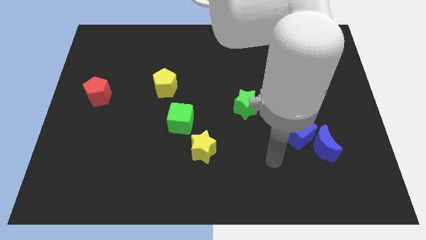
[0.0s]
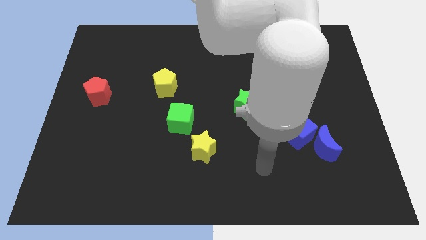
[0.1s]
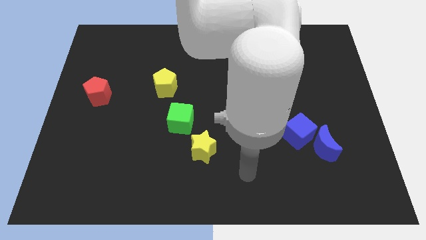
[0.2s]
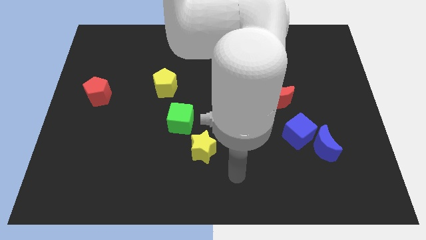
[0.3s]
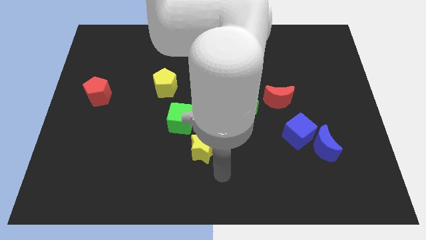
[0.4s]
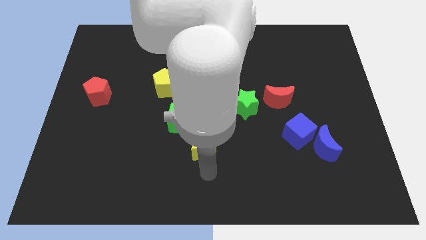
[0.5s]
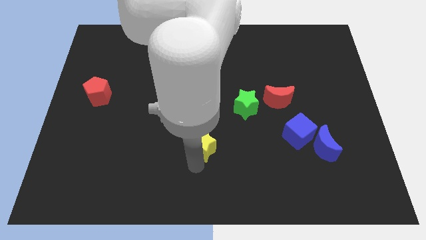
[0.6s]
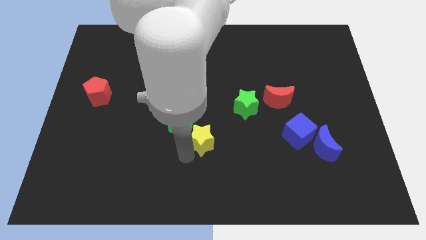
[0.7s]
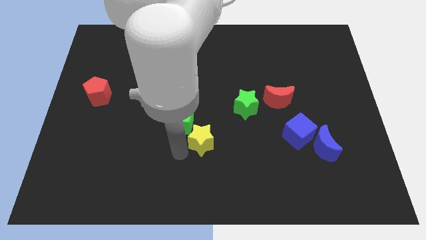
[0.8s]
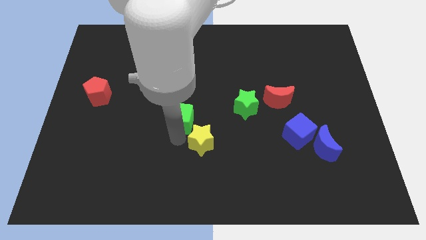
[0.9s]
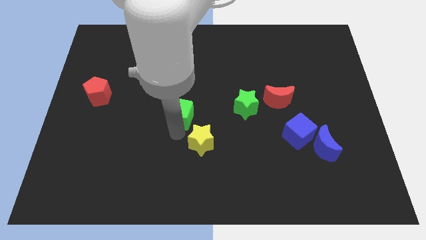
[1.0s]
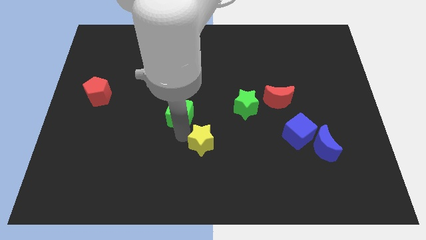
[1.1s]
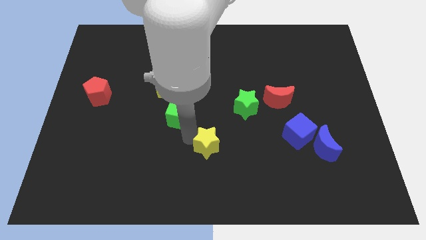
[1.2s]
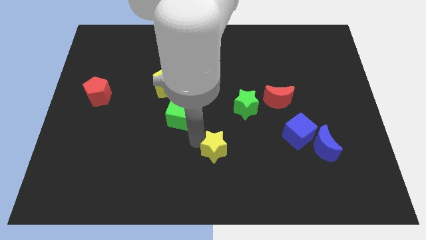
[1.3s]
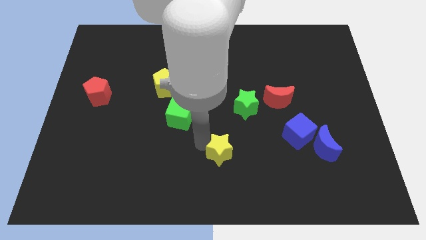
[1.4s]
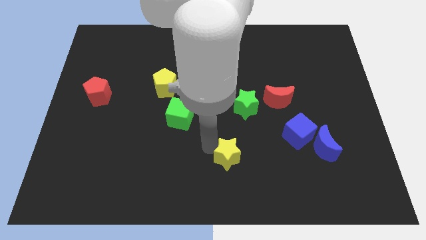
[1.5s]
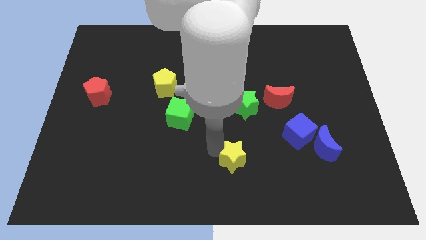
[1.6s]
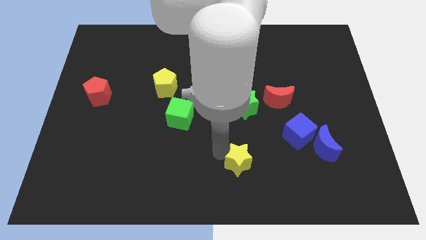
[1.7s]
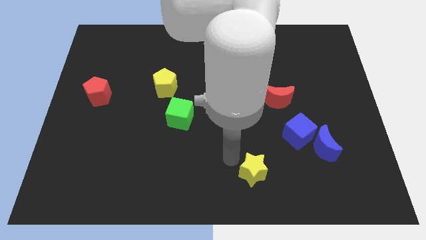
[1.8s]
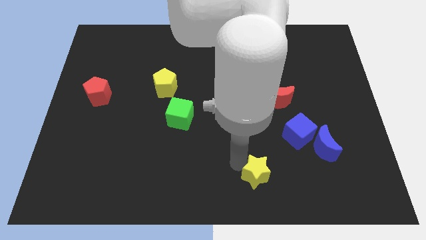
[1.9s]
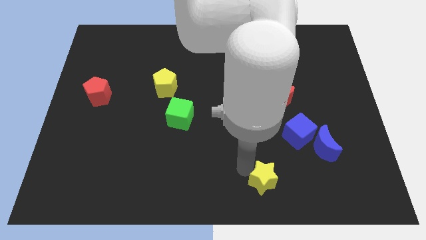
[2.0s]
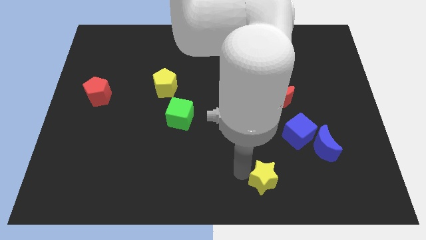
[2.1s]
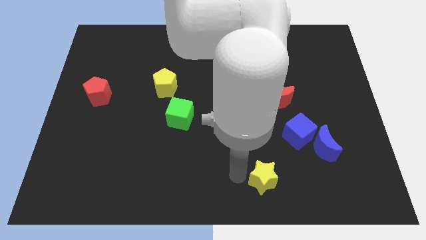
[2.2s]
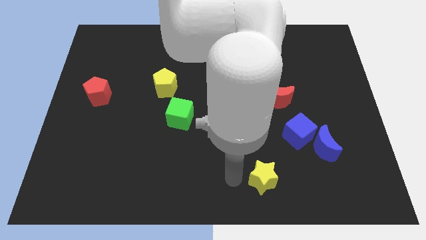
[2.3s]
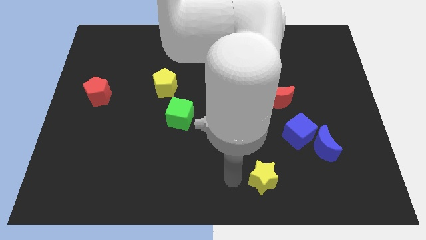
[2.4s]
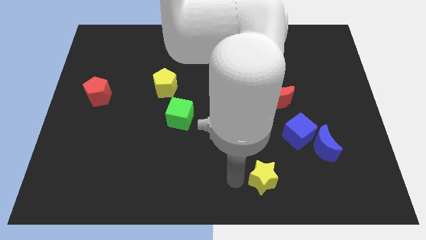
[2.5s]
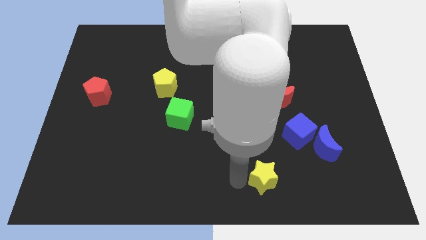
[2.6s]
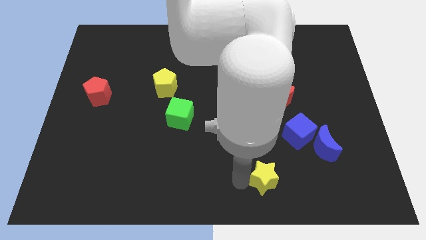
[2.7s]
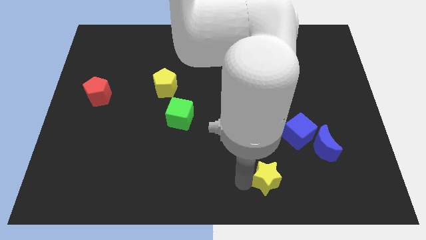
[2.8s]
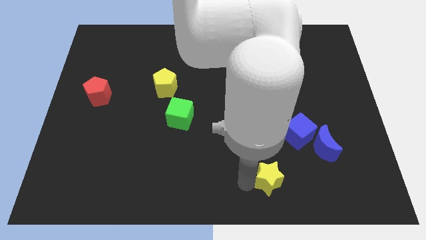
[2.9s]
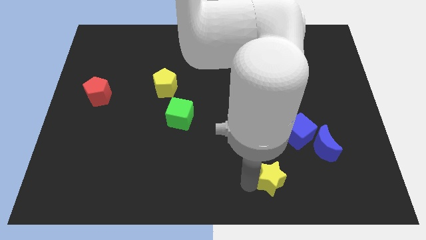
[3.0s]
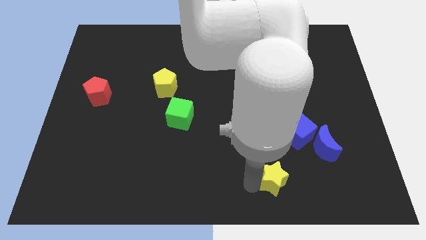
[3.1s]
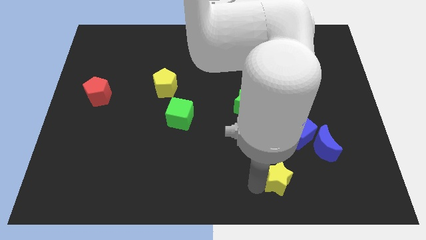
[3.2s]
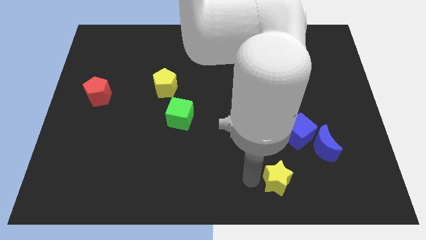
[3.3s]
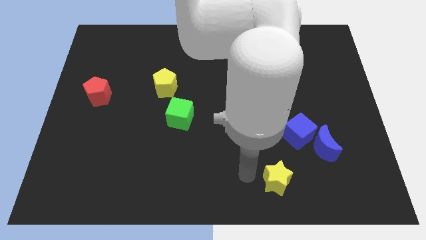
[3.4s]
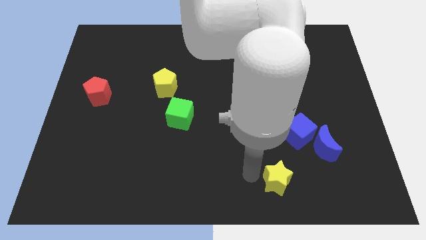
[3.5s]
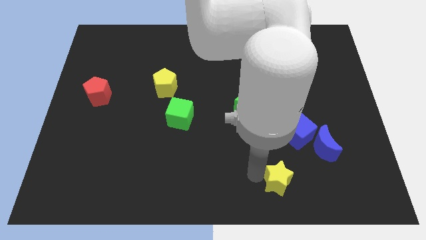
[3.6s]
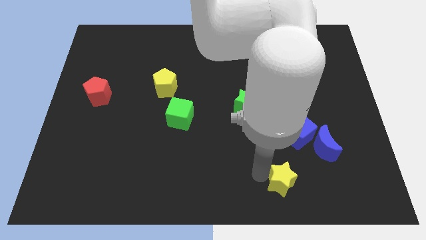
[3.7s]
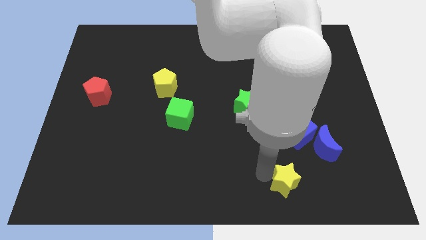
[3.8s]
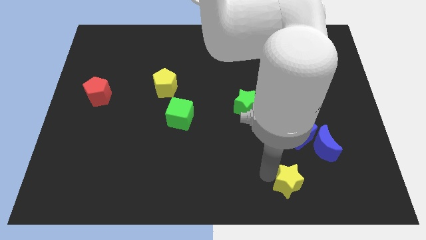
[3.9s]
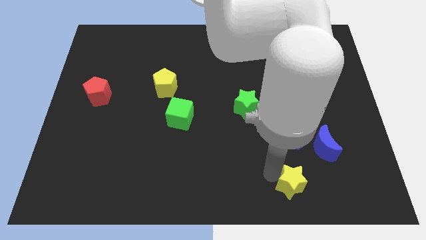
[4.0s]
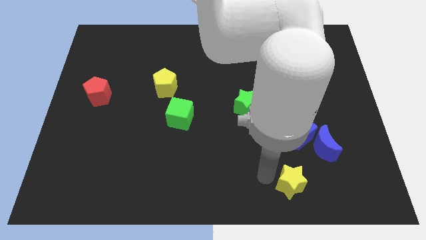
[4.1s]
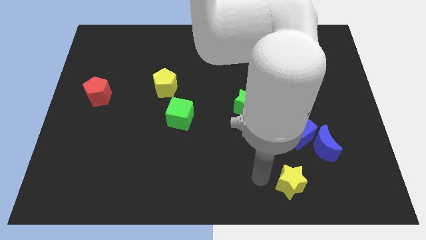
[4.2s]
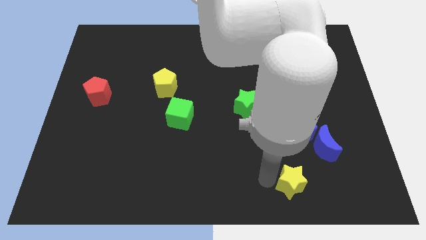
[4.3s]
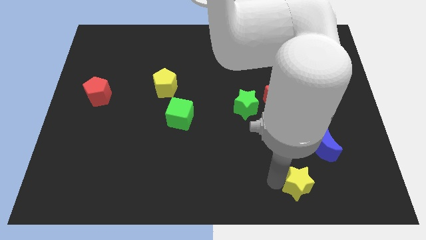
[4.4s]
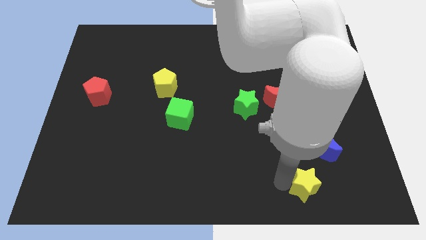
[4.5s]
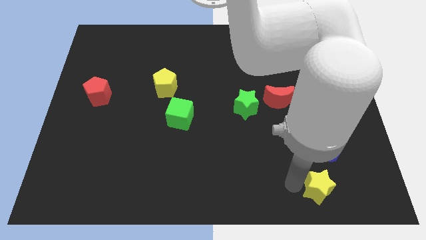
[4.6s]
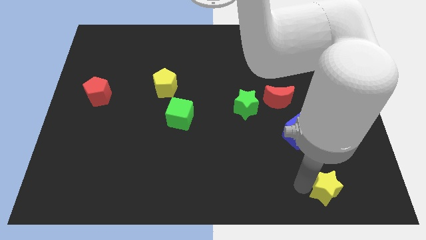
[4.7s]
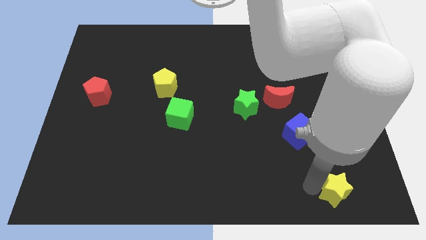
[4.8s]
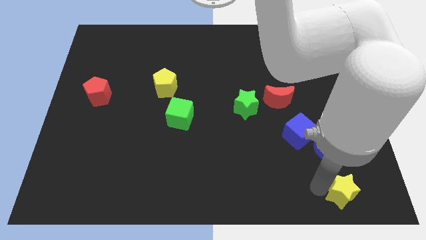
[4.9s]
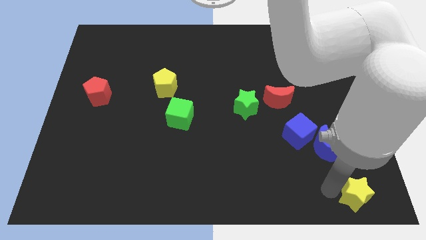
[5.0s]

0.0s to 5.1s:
push the yellow star to the bottom right corner

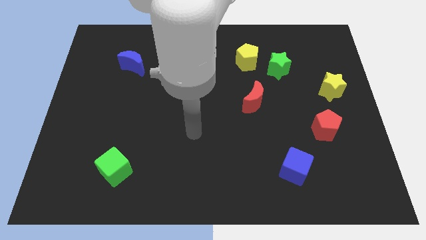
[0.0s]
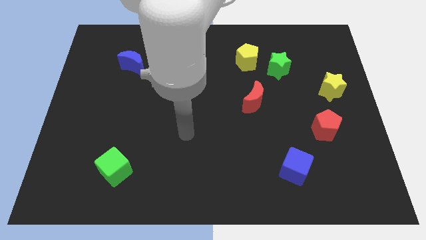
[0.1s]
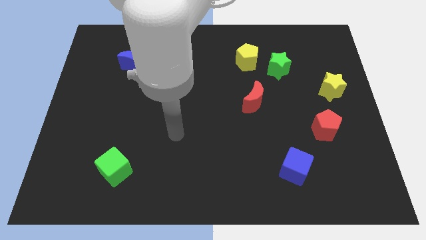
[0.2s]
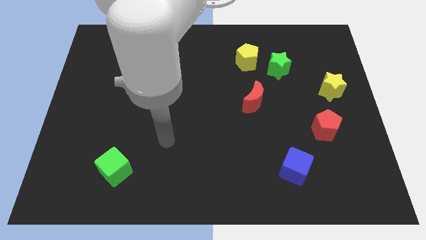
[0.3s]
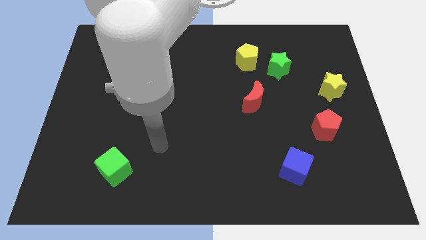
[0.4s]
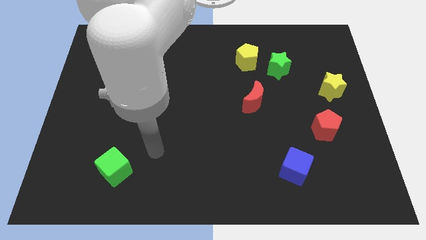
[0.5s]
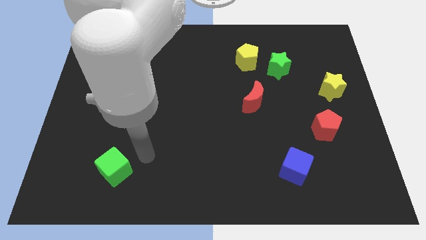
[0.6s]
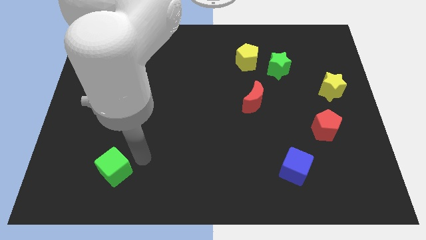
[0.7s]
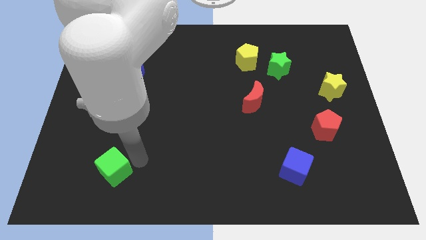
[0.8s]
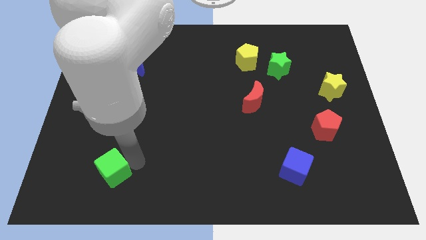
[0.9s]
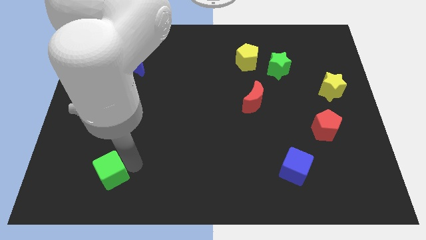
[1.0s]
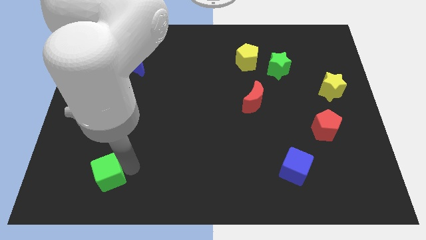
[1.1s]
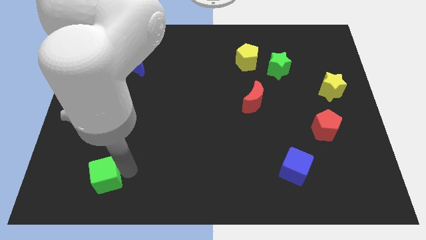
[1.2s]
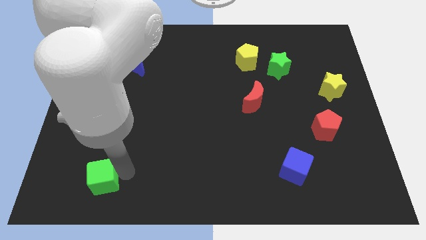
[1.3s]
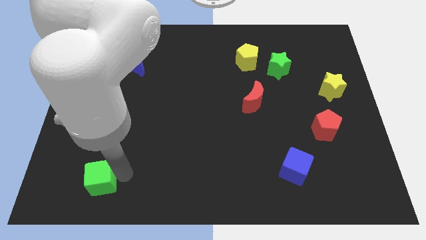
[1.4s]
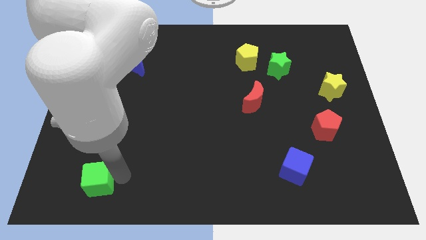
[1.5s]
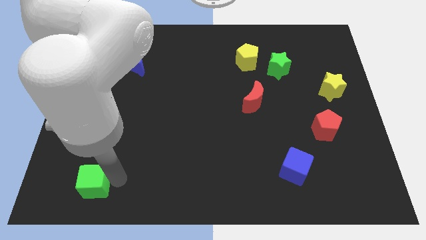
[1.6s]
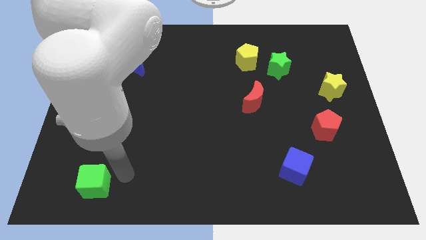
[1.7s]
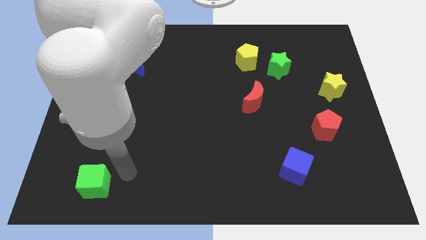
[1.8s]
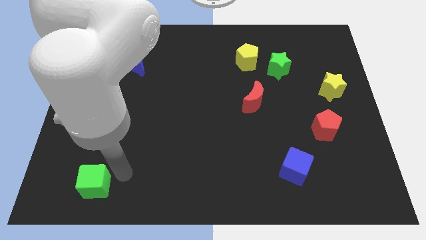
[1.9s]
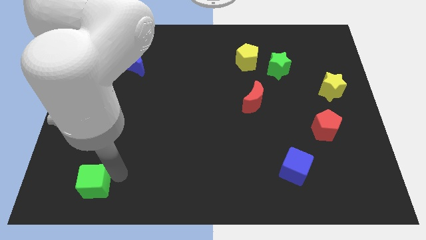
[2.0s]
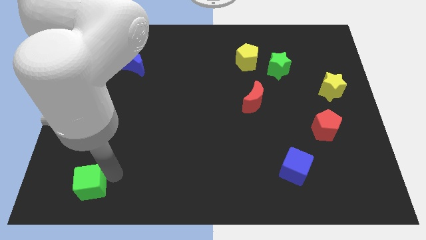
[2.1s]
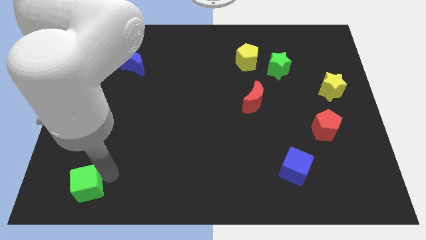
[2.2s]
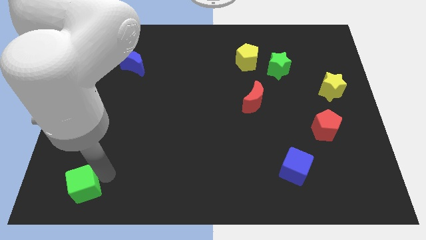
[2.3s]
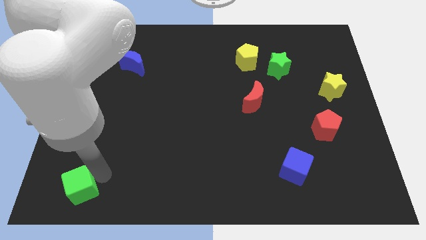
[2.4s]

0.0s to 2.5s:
slide the green cube to the lower left corner
